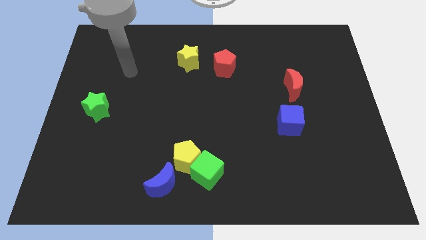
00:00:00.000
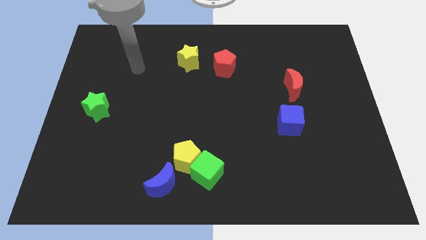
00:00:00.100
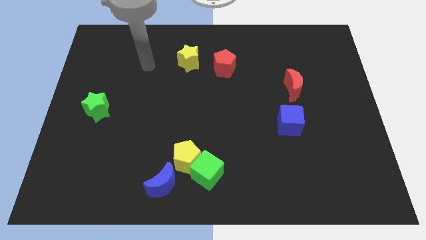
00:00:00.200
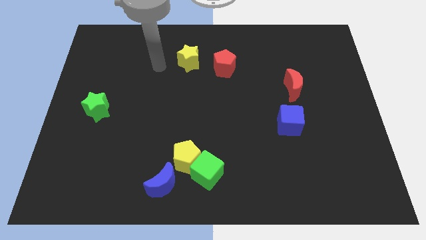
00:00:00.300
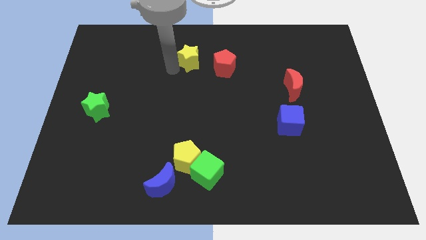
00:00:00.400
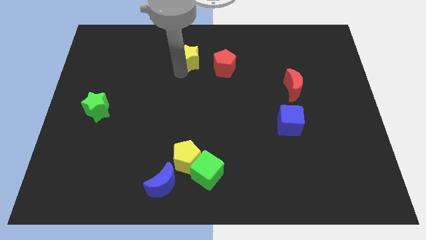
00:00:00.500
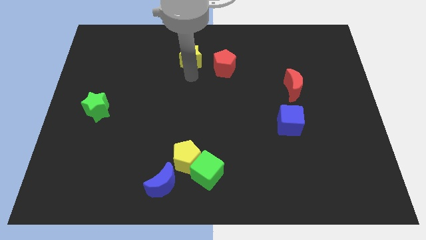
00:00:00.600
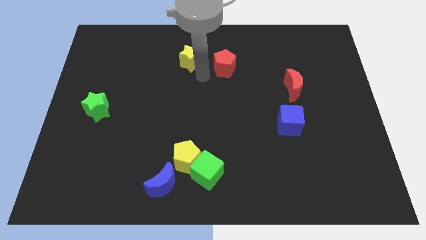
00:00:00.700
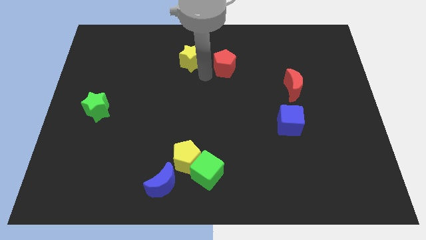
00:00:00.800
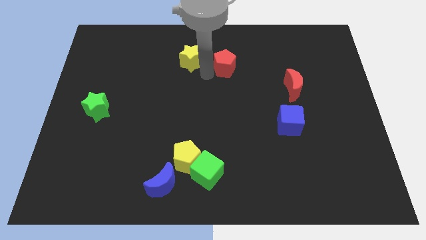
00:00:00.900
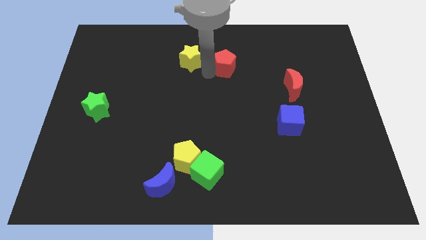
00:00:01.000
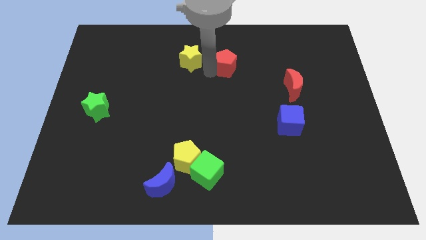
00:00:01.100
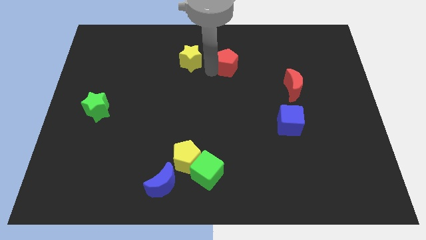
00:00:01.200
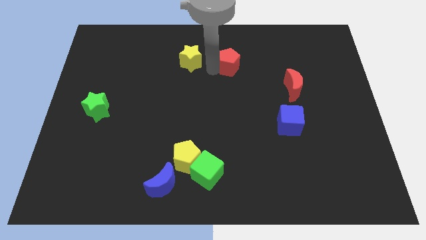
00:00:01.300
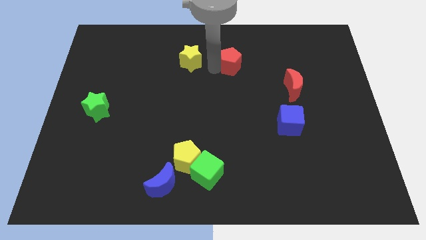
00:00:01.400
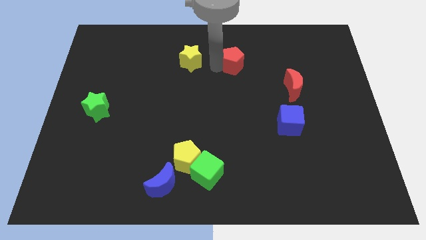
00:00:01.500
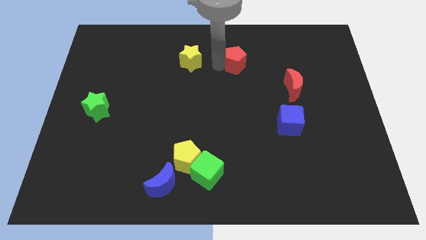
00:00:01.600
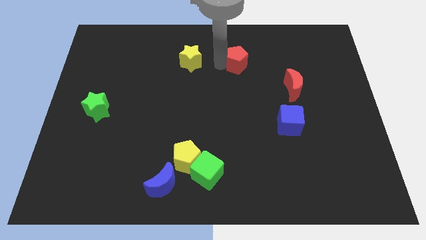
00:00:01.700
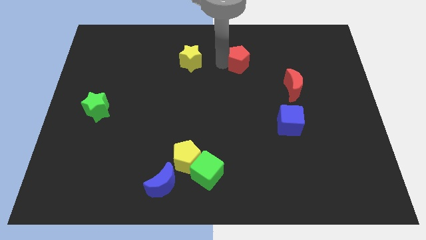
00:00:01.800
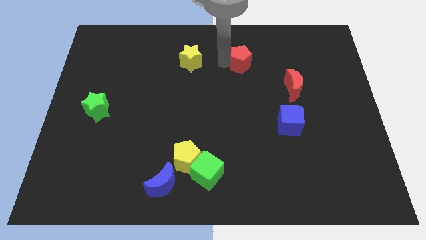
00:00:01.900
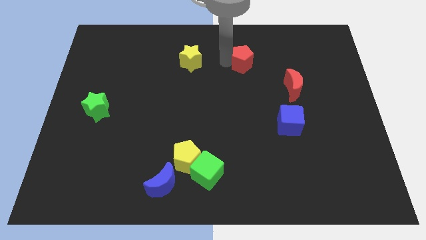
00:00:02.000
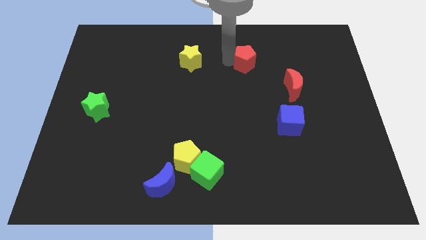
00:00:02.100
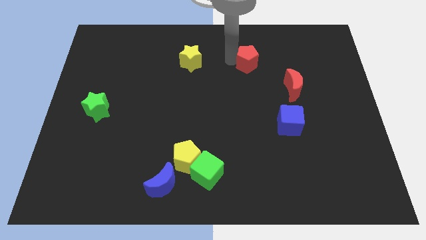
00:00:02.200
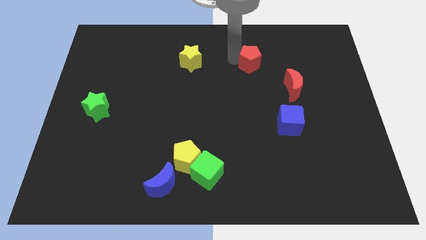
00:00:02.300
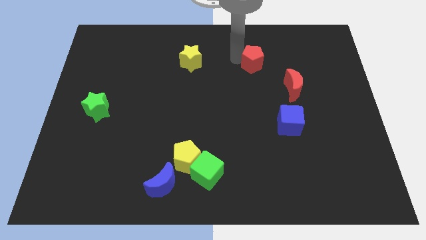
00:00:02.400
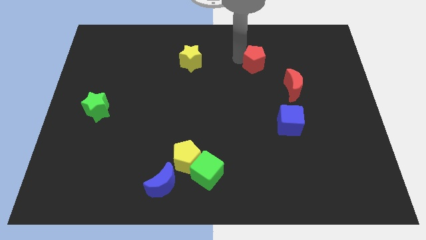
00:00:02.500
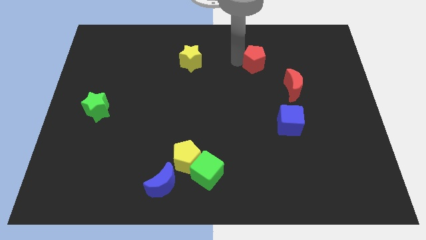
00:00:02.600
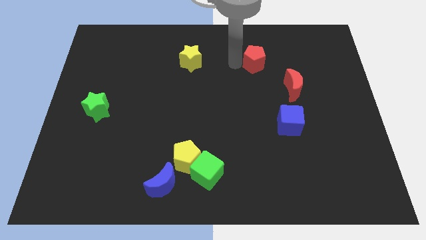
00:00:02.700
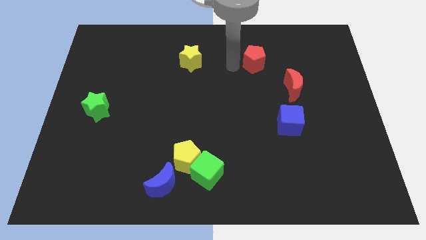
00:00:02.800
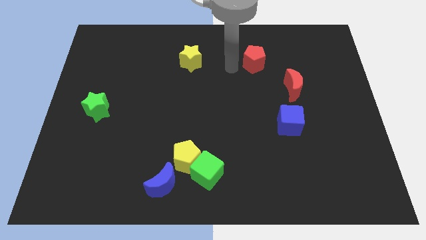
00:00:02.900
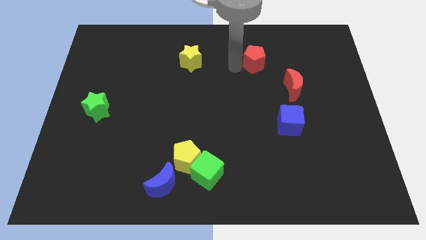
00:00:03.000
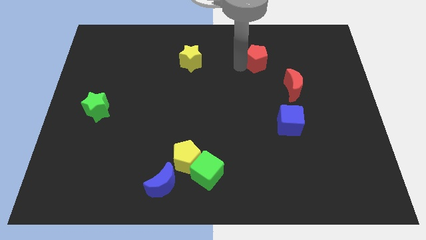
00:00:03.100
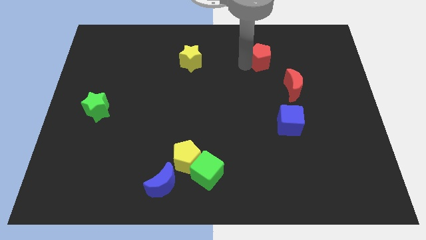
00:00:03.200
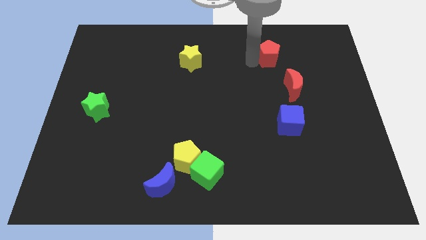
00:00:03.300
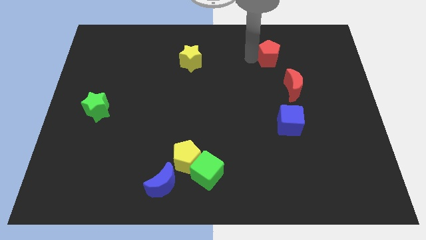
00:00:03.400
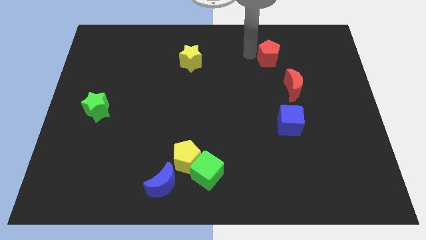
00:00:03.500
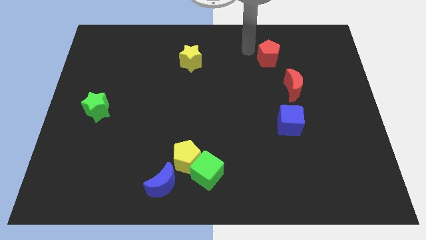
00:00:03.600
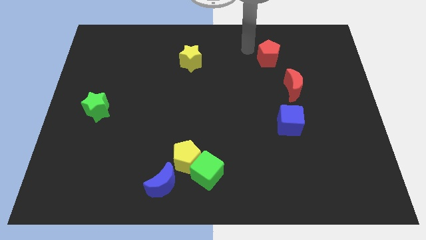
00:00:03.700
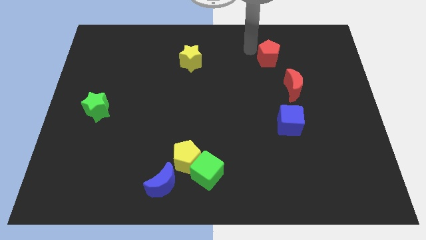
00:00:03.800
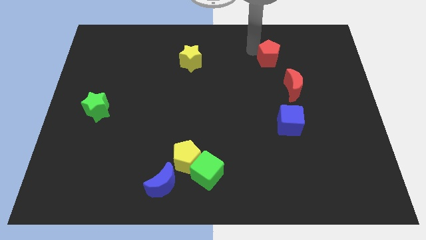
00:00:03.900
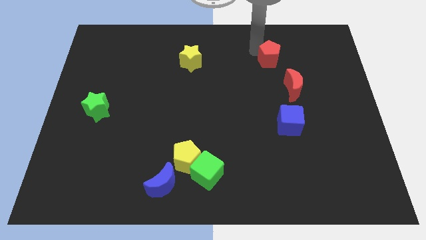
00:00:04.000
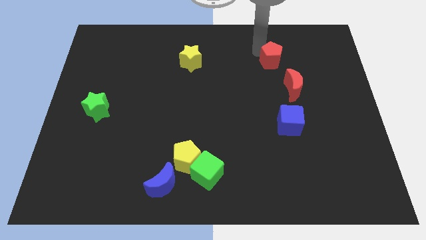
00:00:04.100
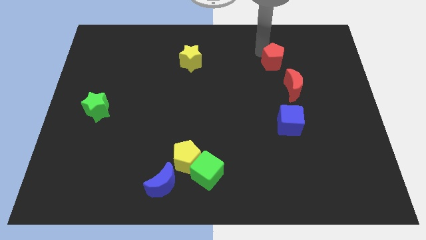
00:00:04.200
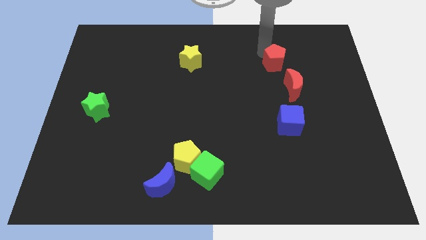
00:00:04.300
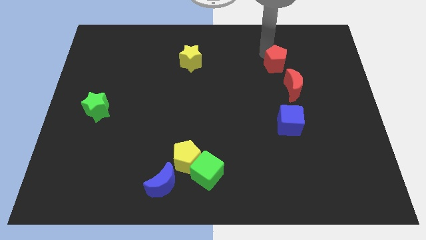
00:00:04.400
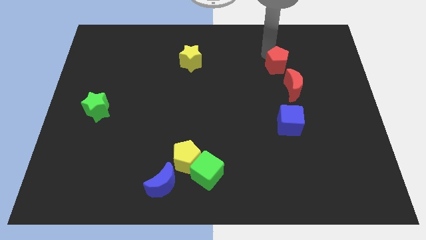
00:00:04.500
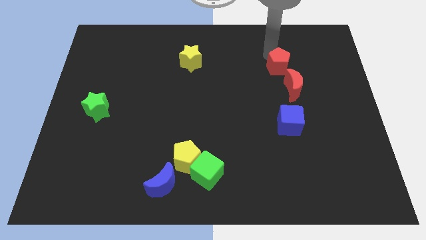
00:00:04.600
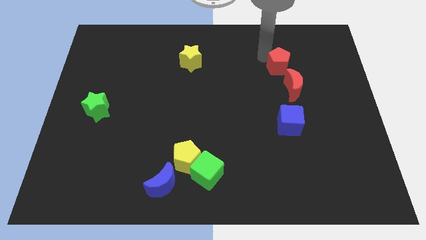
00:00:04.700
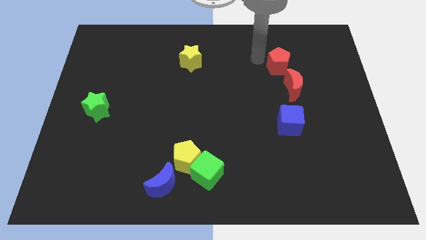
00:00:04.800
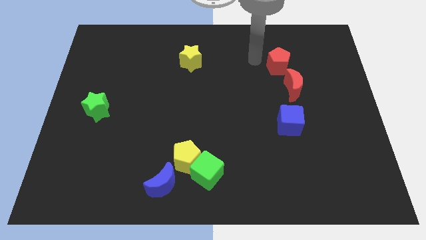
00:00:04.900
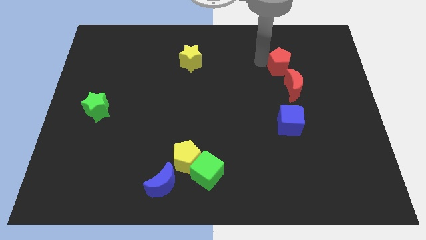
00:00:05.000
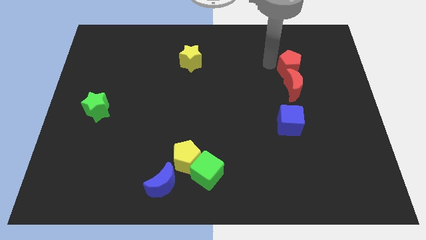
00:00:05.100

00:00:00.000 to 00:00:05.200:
put the red pentagon to the top right of the red moon

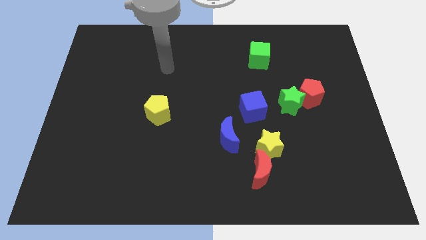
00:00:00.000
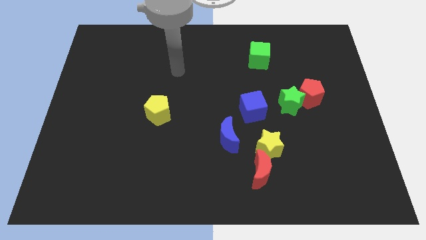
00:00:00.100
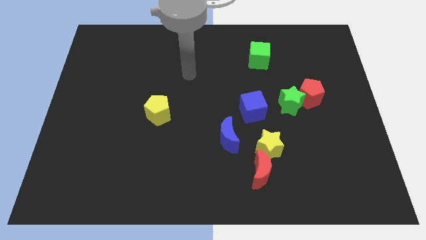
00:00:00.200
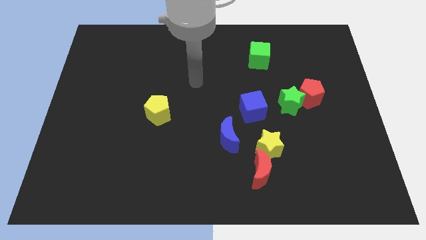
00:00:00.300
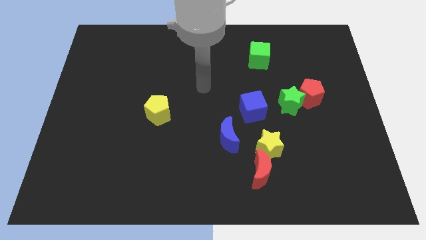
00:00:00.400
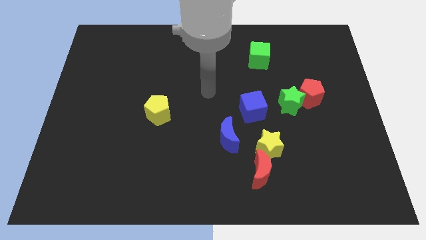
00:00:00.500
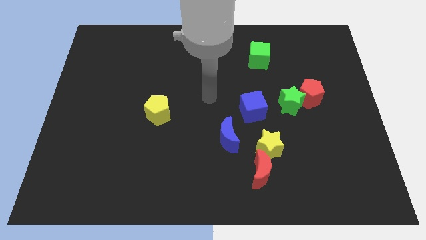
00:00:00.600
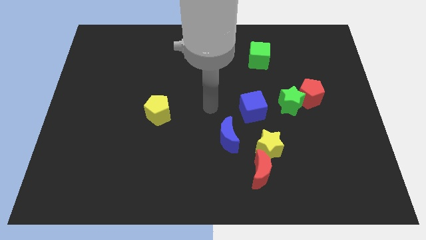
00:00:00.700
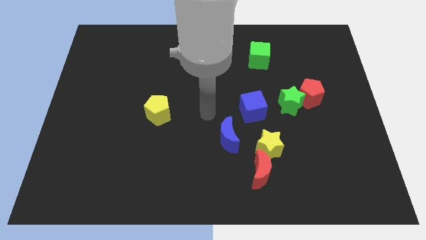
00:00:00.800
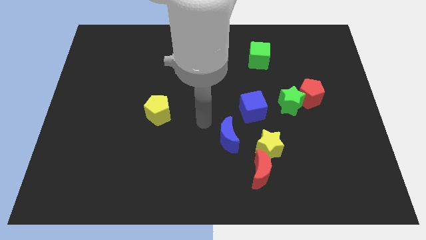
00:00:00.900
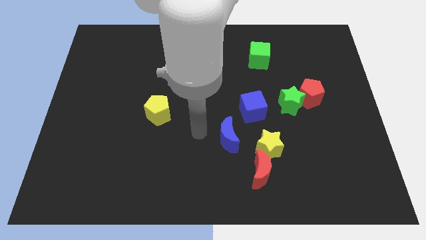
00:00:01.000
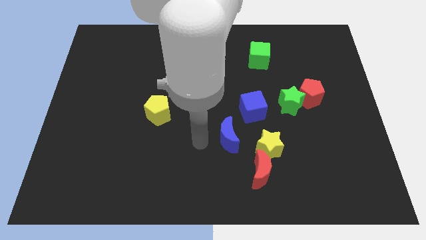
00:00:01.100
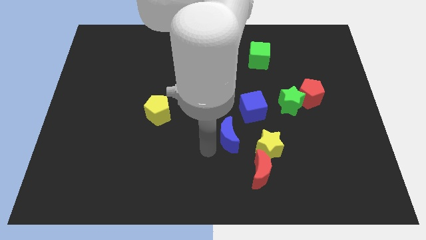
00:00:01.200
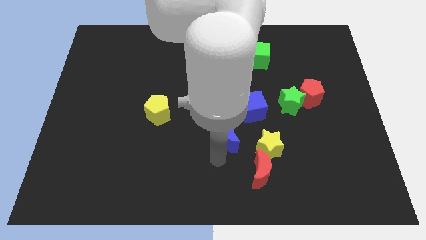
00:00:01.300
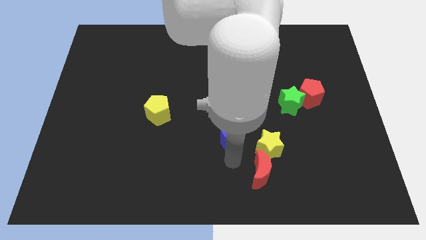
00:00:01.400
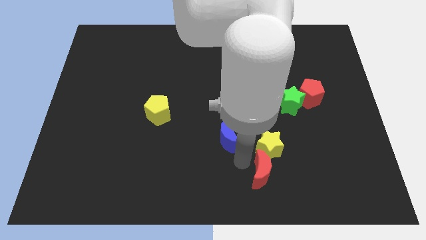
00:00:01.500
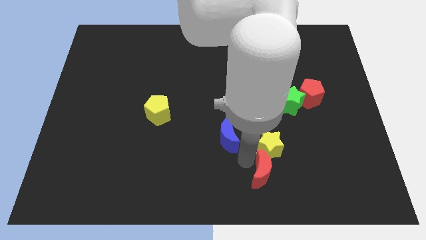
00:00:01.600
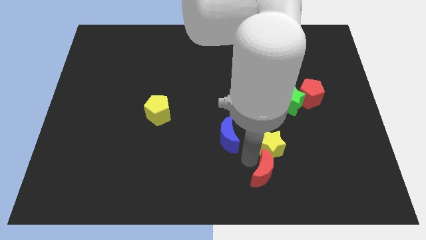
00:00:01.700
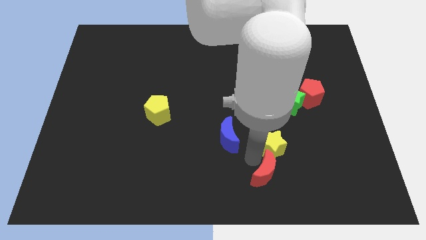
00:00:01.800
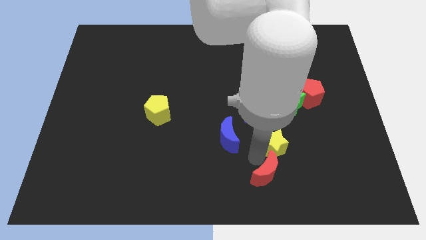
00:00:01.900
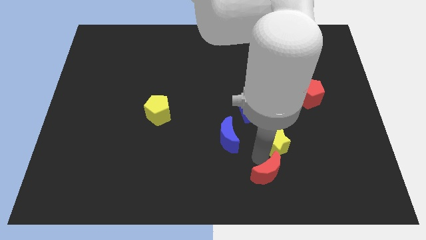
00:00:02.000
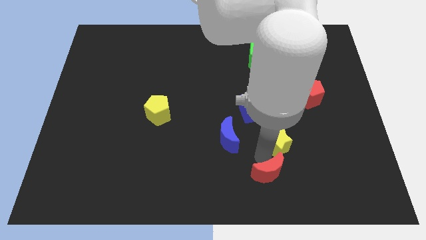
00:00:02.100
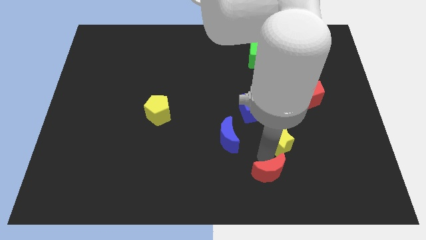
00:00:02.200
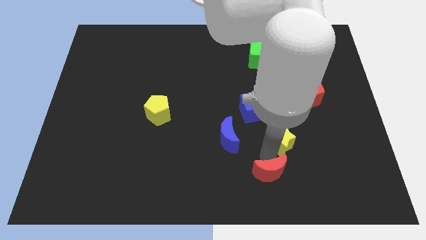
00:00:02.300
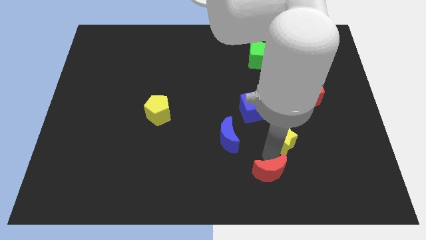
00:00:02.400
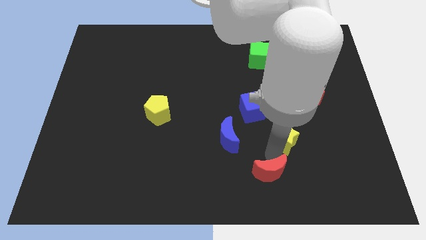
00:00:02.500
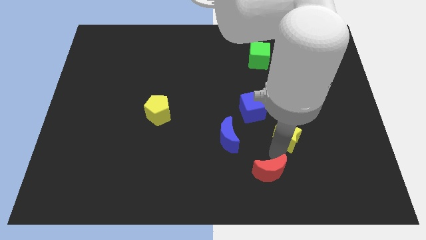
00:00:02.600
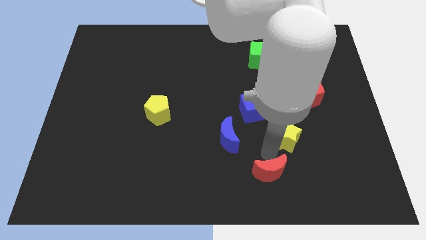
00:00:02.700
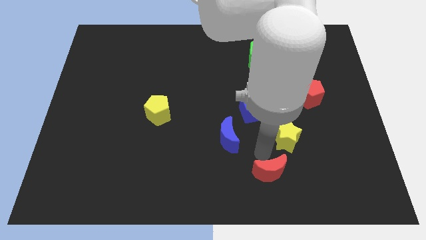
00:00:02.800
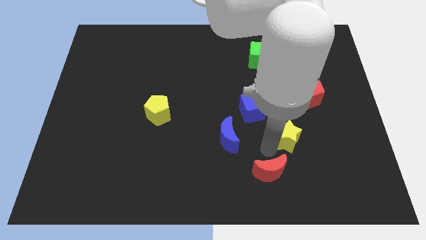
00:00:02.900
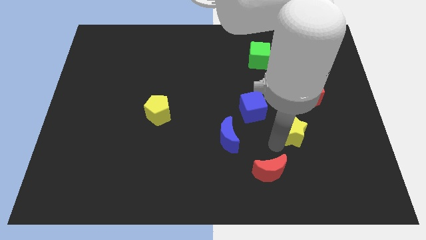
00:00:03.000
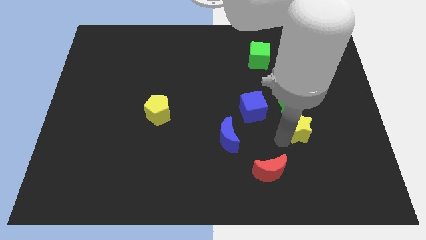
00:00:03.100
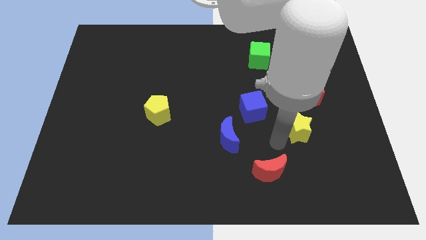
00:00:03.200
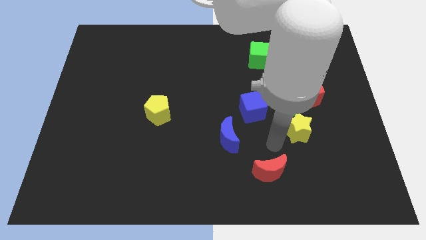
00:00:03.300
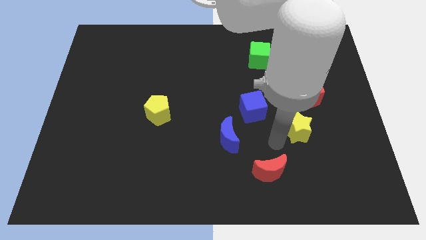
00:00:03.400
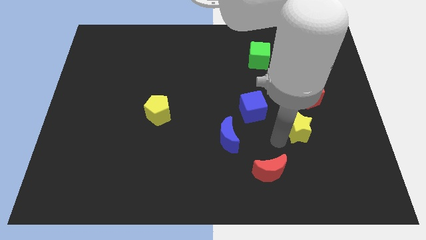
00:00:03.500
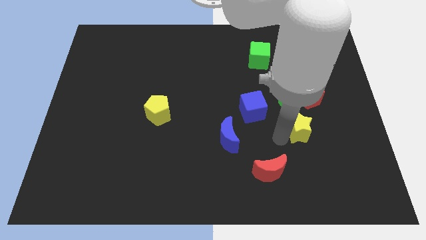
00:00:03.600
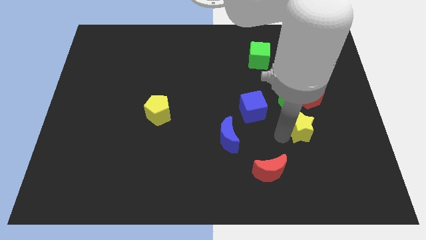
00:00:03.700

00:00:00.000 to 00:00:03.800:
push the yellow star to the bottom right side of the green star
